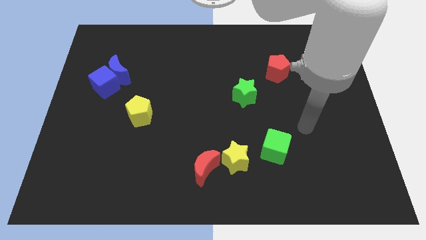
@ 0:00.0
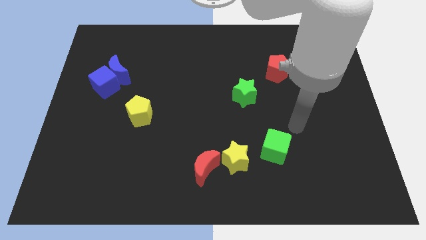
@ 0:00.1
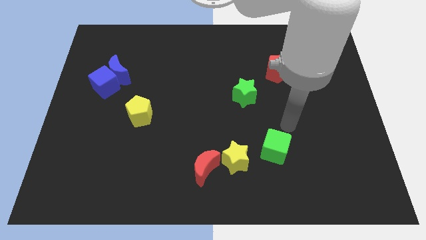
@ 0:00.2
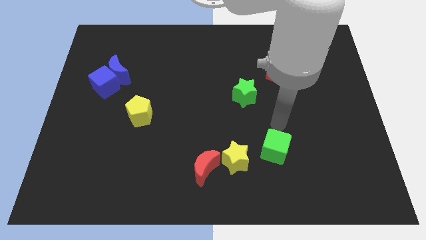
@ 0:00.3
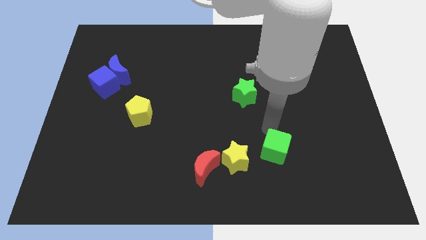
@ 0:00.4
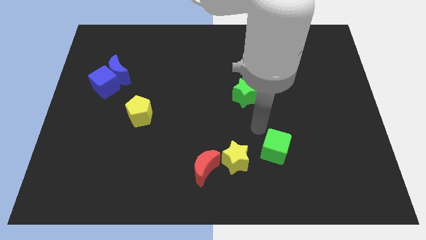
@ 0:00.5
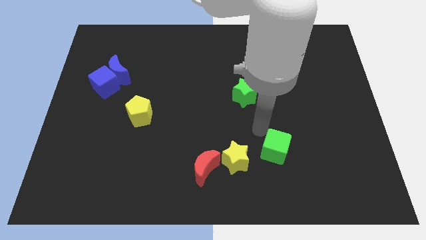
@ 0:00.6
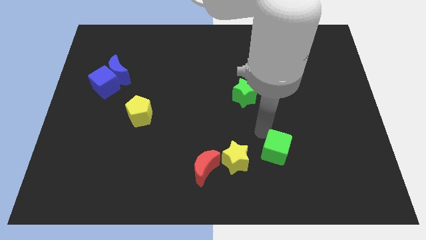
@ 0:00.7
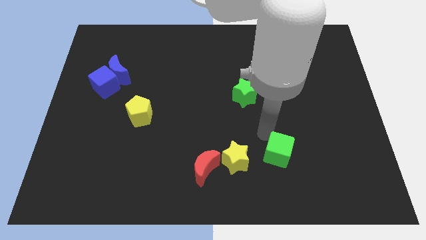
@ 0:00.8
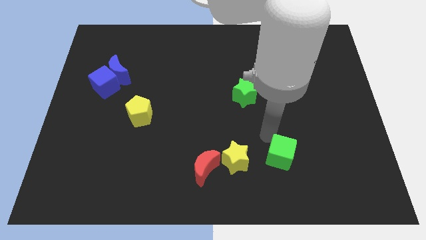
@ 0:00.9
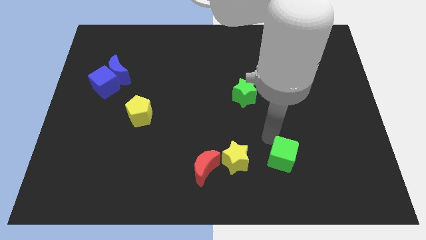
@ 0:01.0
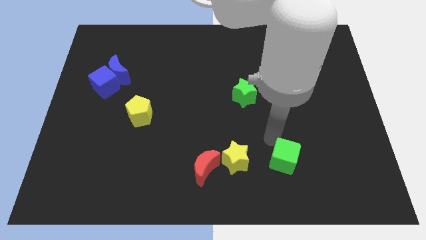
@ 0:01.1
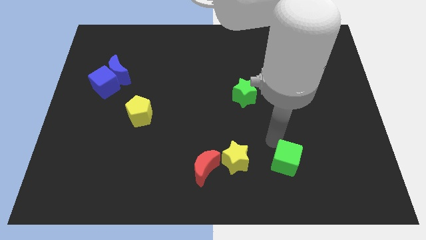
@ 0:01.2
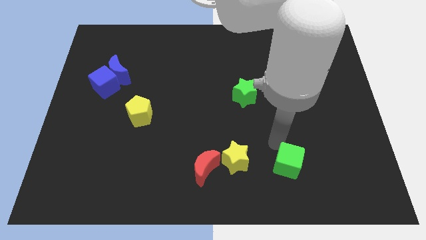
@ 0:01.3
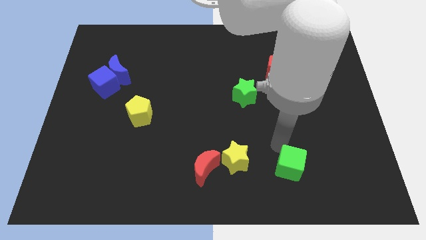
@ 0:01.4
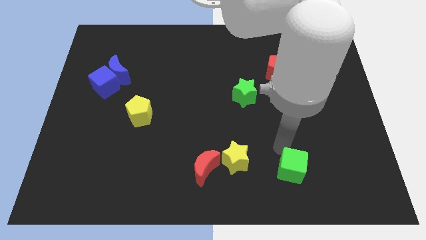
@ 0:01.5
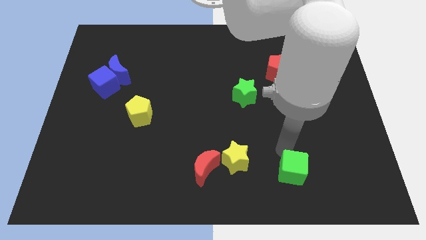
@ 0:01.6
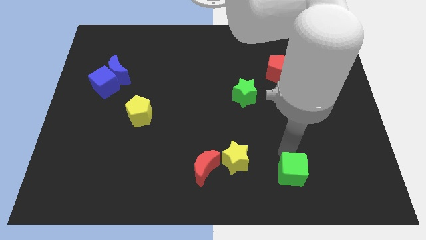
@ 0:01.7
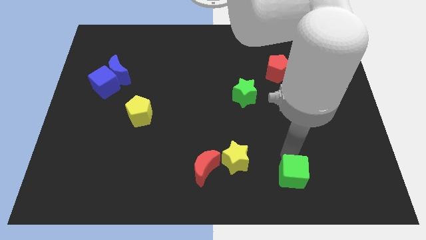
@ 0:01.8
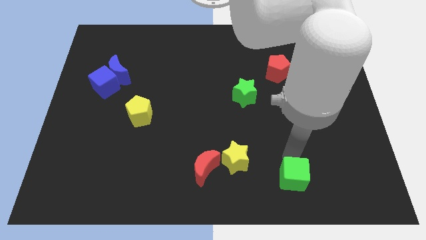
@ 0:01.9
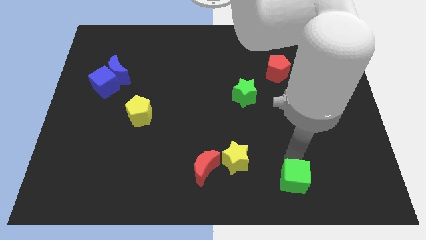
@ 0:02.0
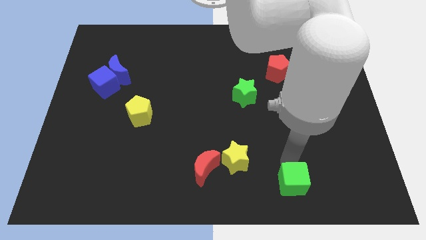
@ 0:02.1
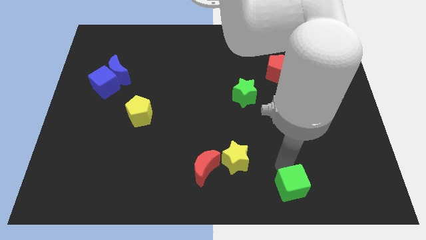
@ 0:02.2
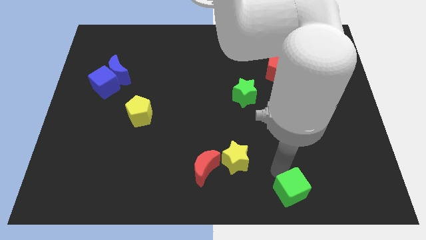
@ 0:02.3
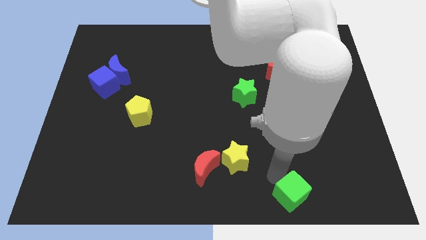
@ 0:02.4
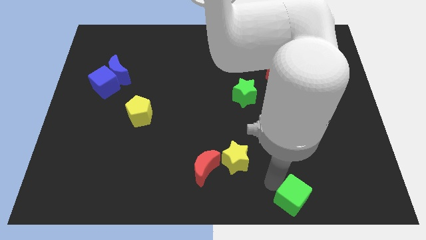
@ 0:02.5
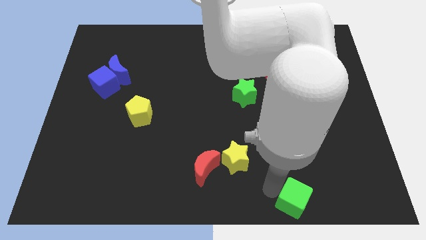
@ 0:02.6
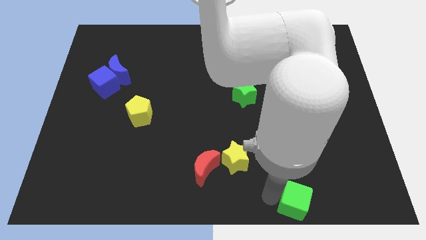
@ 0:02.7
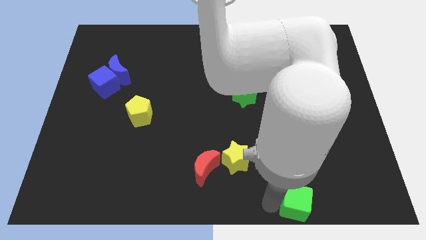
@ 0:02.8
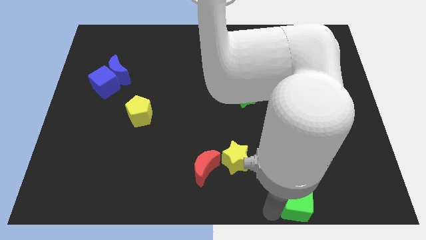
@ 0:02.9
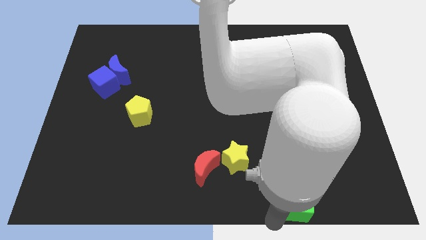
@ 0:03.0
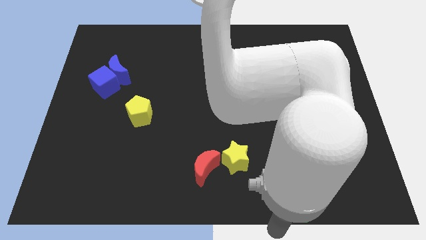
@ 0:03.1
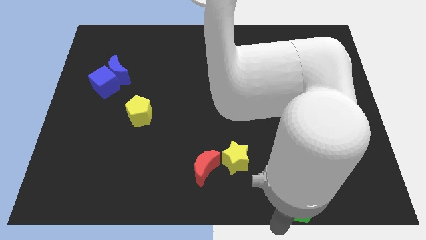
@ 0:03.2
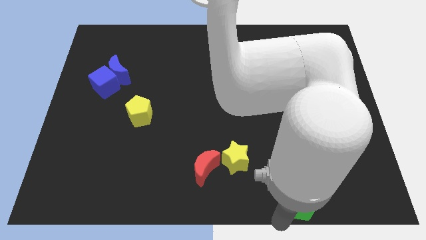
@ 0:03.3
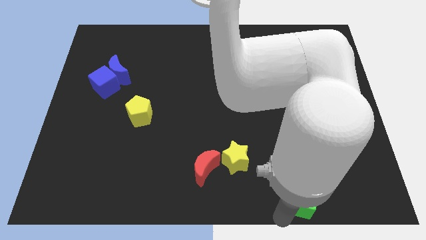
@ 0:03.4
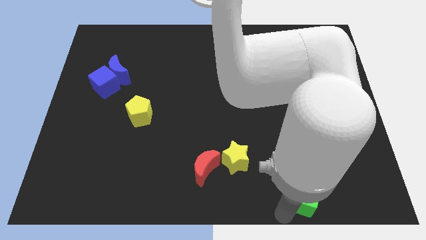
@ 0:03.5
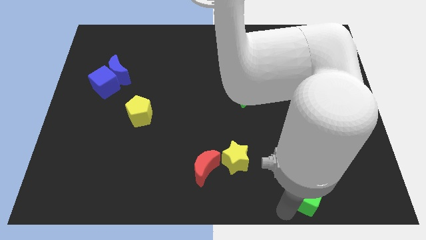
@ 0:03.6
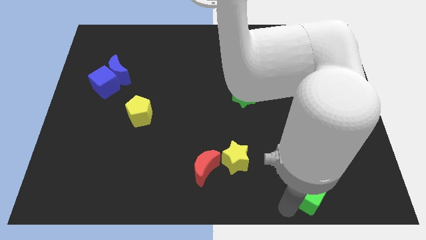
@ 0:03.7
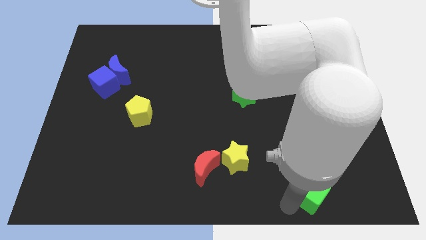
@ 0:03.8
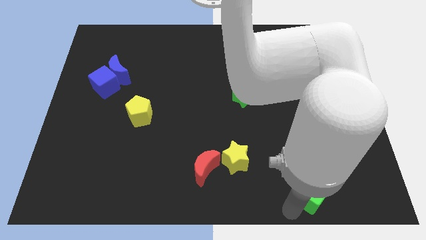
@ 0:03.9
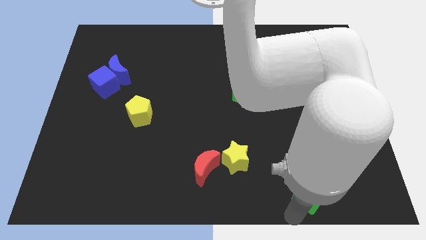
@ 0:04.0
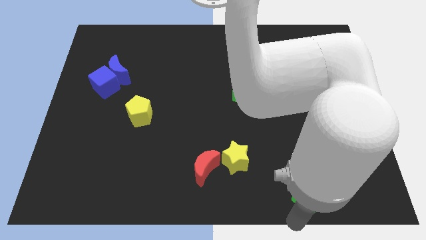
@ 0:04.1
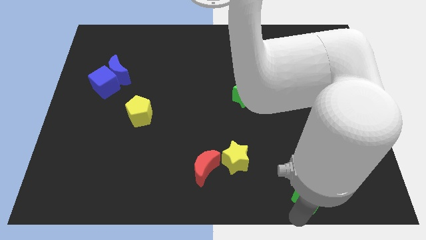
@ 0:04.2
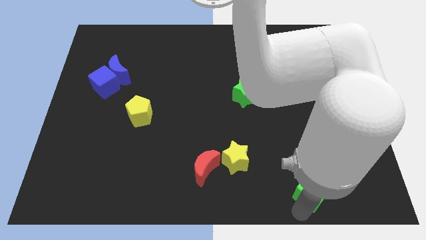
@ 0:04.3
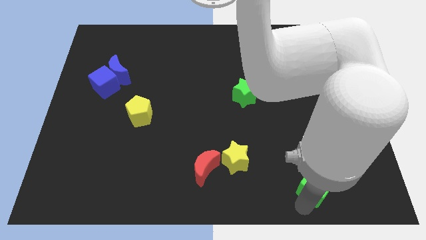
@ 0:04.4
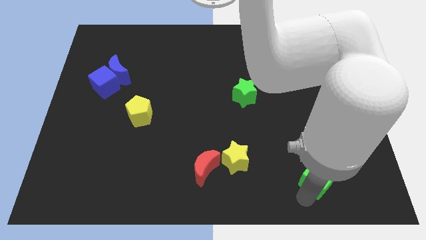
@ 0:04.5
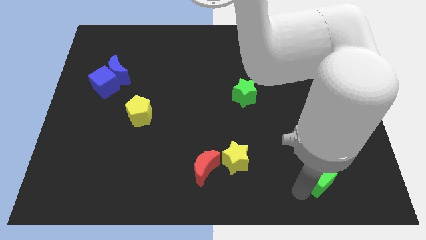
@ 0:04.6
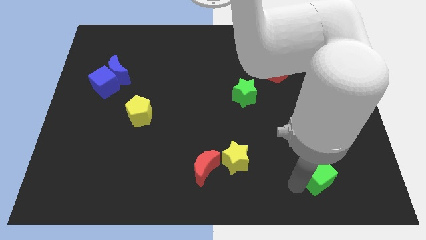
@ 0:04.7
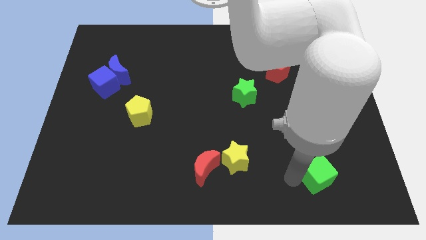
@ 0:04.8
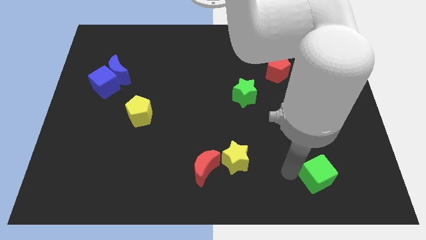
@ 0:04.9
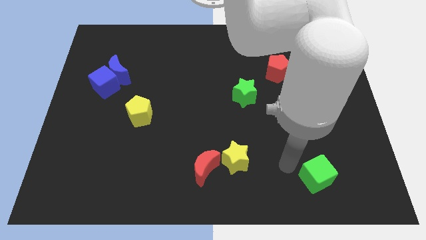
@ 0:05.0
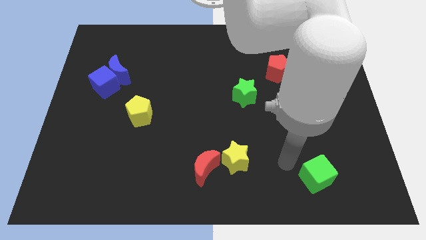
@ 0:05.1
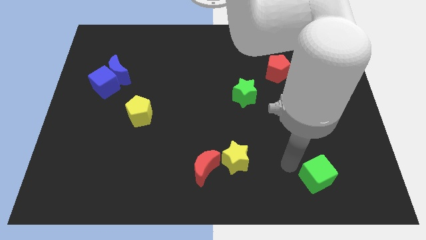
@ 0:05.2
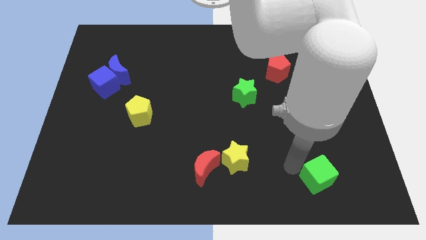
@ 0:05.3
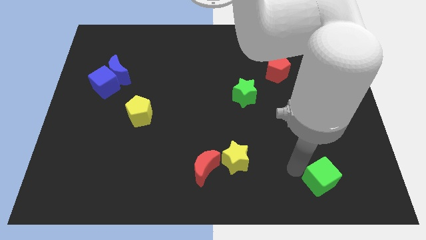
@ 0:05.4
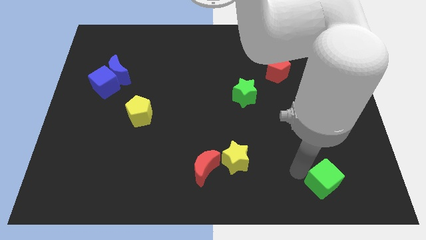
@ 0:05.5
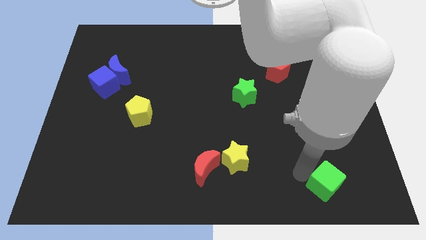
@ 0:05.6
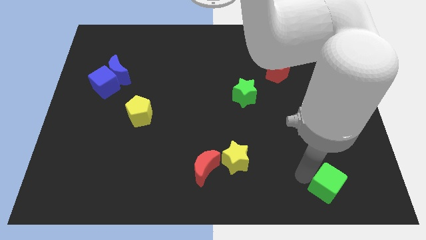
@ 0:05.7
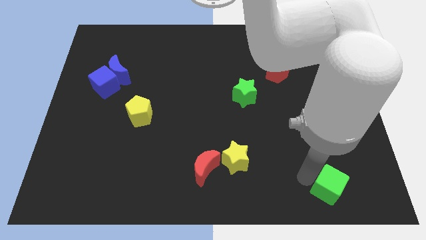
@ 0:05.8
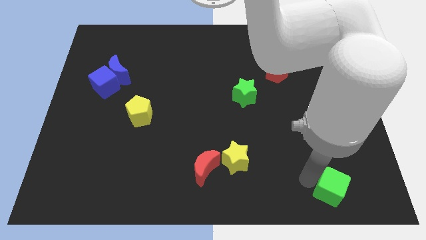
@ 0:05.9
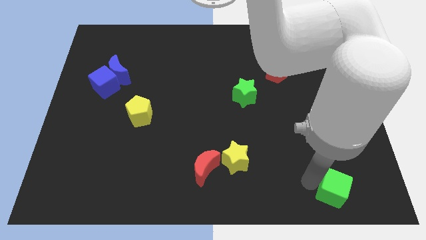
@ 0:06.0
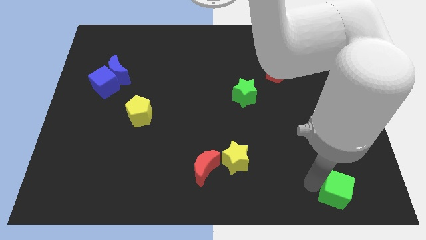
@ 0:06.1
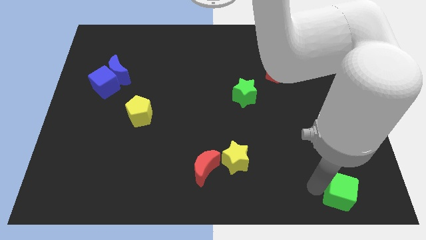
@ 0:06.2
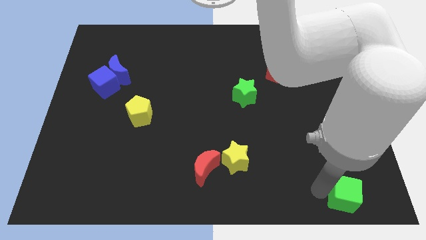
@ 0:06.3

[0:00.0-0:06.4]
put the green cube to the bottom right of the board
